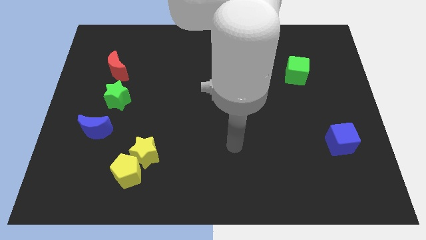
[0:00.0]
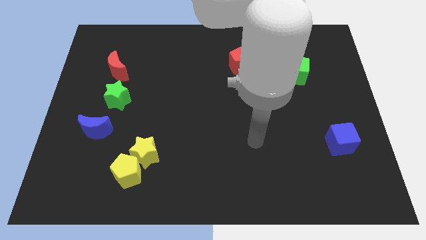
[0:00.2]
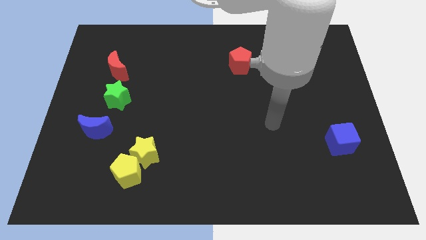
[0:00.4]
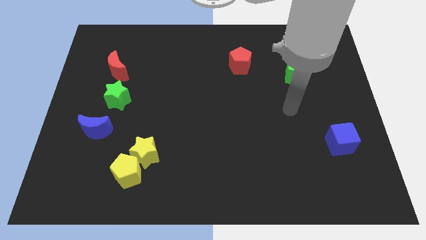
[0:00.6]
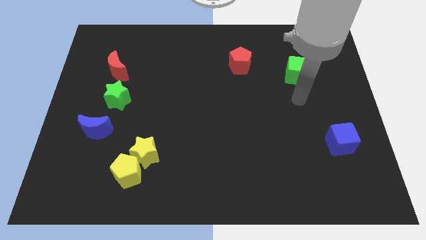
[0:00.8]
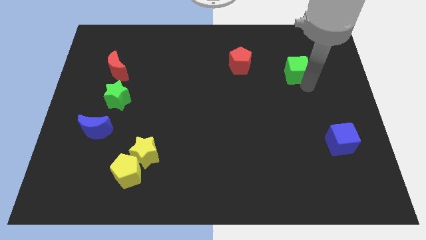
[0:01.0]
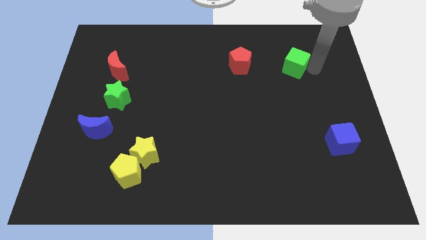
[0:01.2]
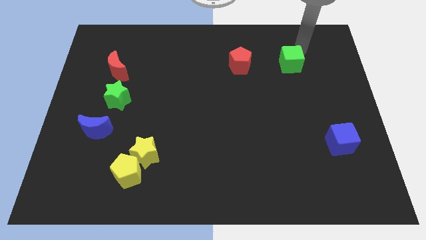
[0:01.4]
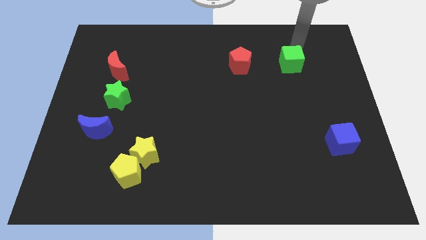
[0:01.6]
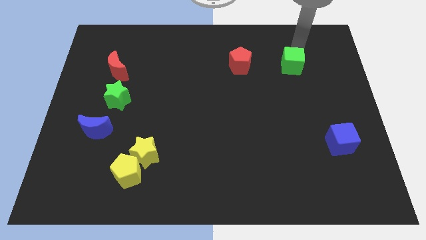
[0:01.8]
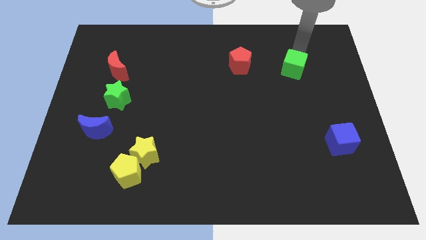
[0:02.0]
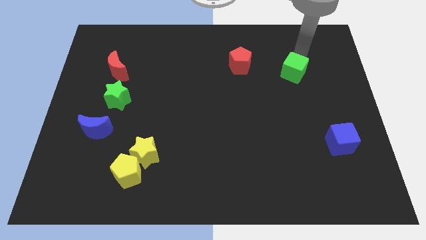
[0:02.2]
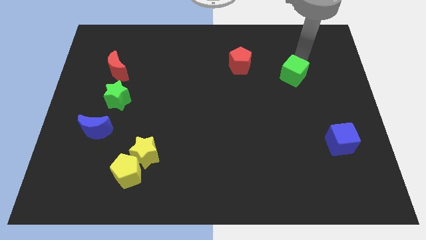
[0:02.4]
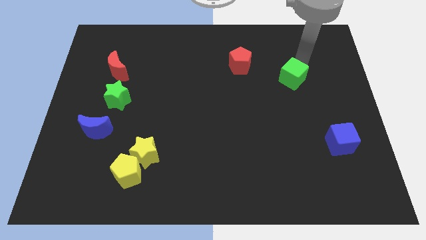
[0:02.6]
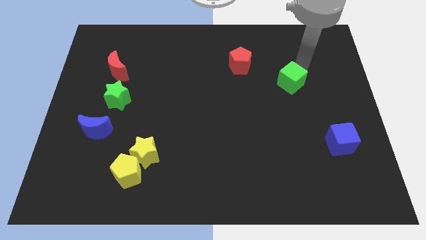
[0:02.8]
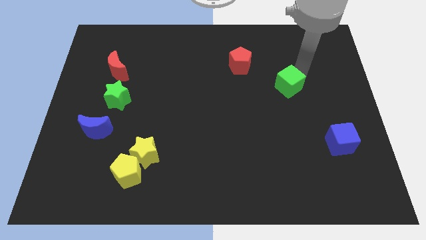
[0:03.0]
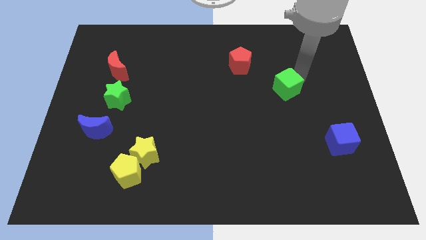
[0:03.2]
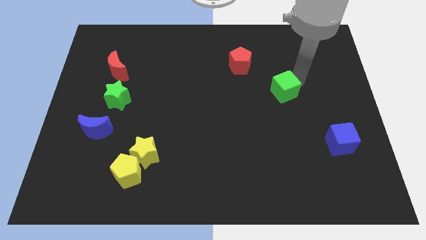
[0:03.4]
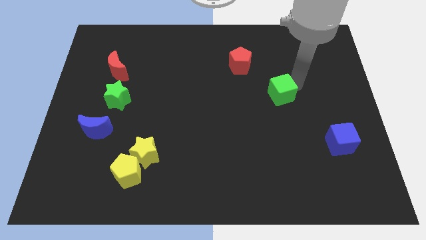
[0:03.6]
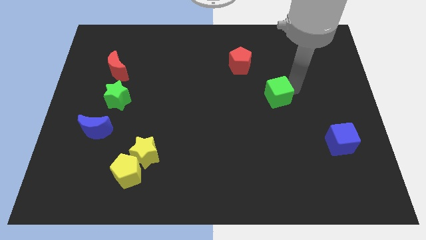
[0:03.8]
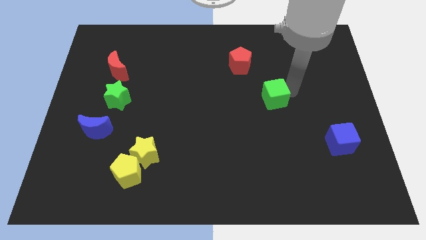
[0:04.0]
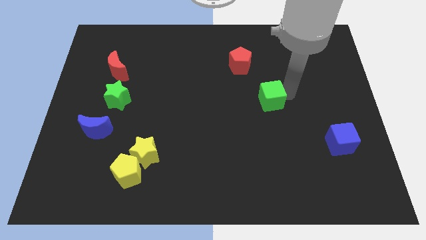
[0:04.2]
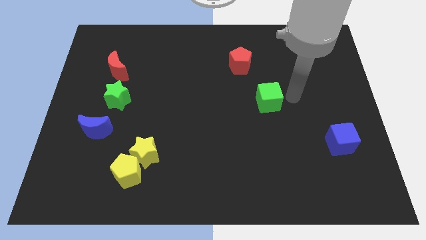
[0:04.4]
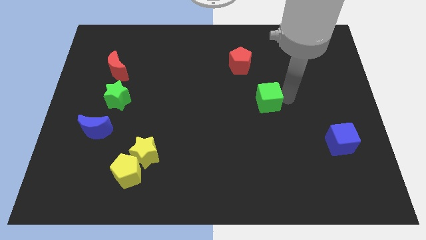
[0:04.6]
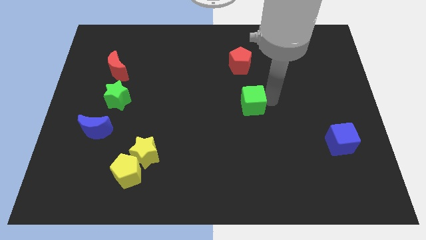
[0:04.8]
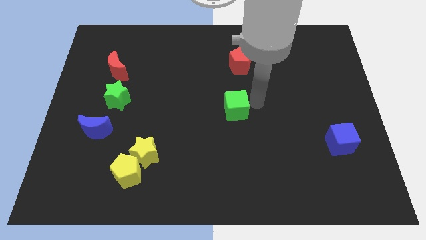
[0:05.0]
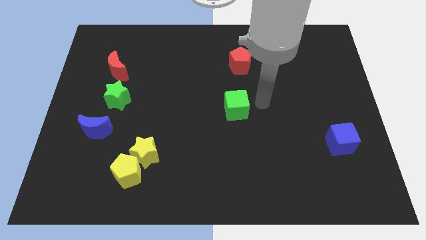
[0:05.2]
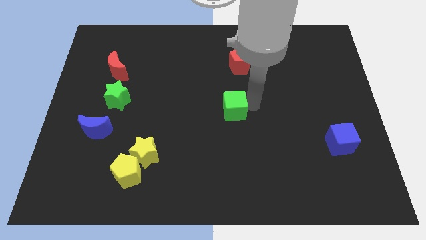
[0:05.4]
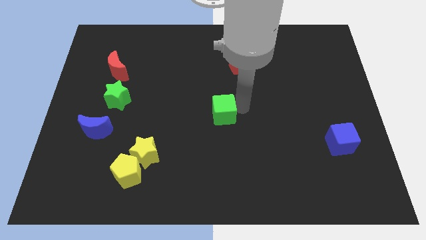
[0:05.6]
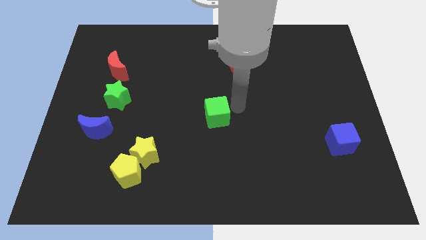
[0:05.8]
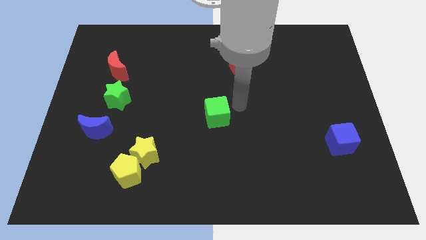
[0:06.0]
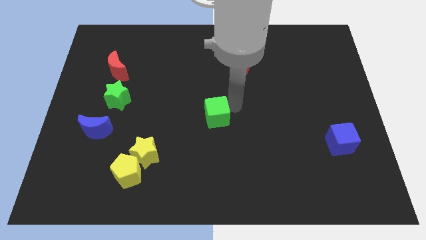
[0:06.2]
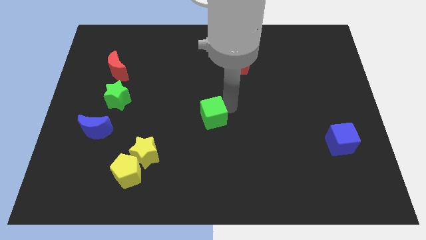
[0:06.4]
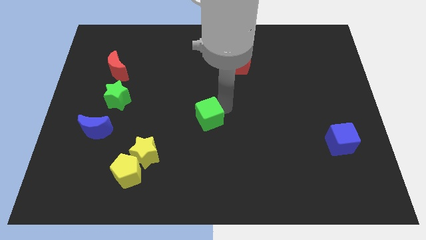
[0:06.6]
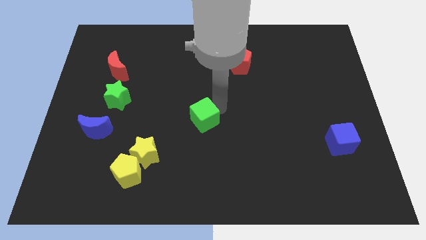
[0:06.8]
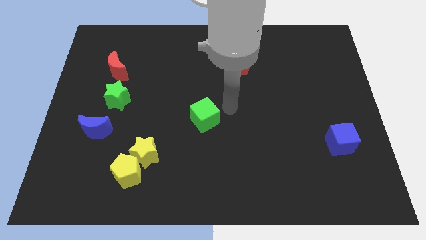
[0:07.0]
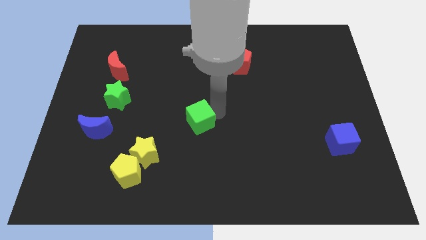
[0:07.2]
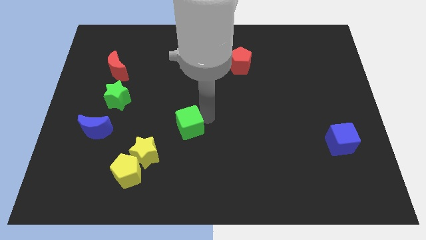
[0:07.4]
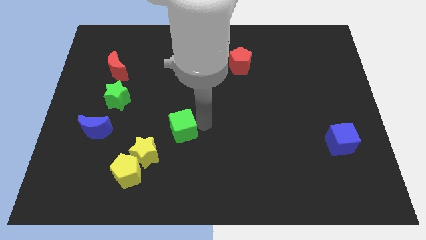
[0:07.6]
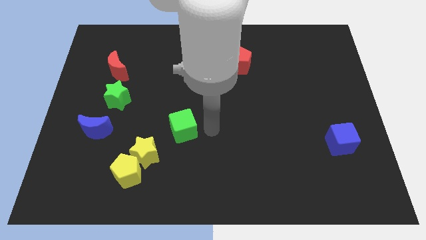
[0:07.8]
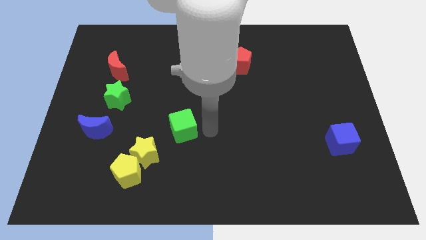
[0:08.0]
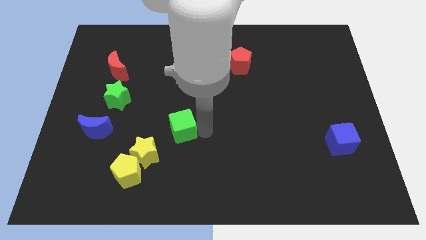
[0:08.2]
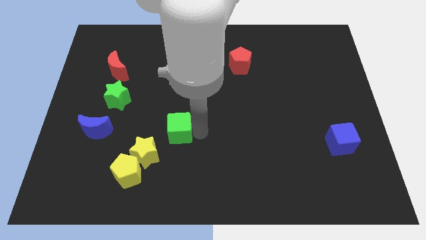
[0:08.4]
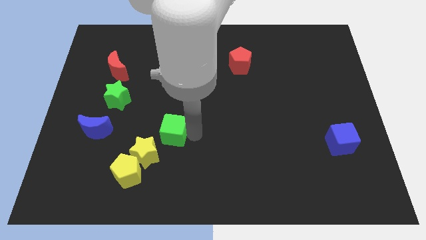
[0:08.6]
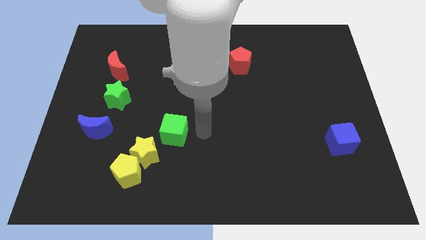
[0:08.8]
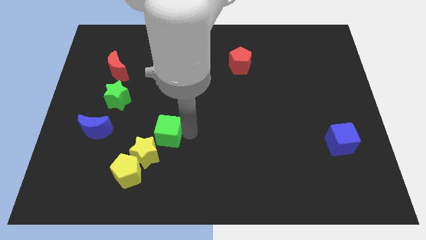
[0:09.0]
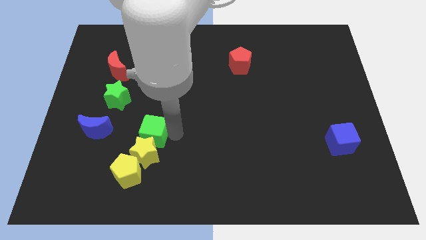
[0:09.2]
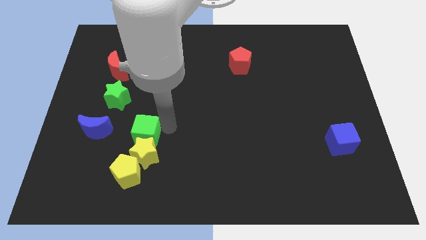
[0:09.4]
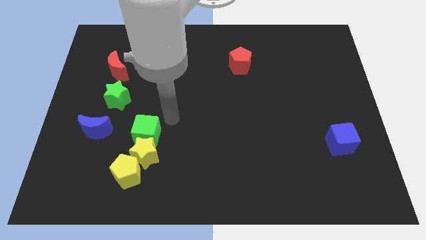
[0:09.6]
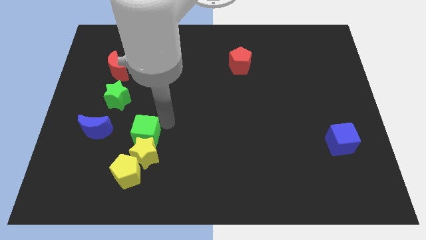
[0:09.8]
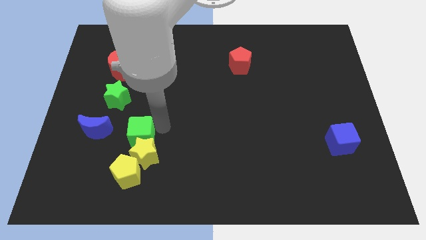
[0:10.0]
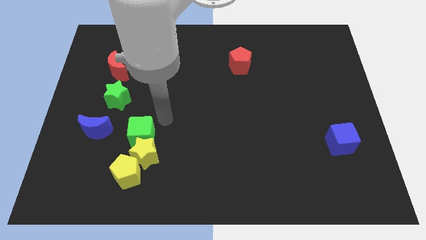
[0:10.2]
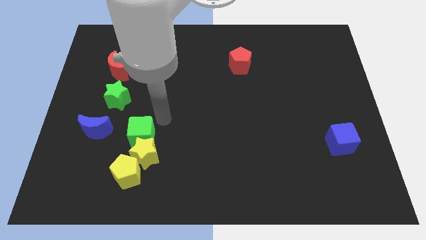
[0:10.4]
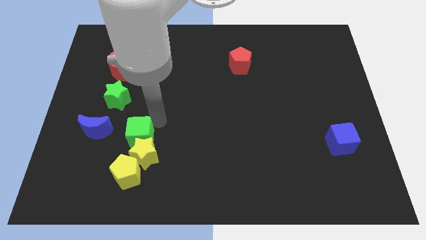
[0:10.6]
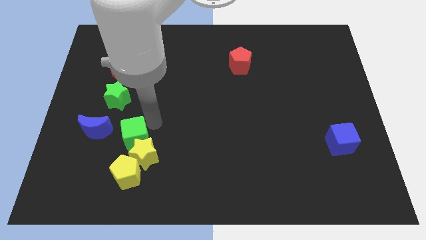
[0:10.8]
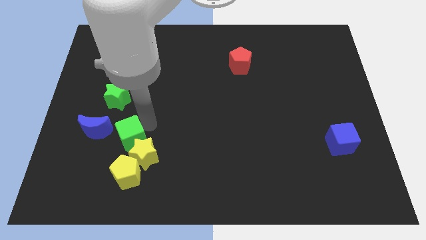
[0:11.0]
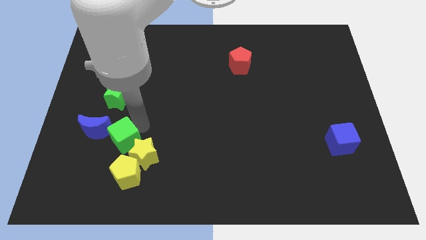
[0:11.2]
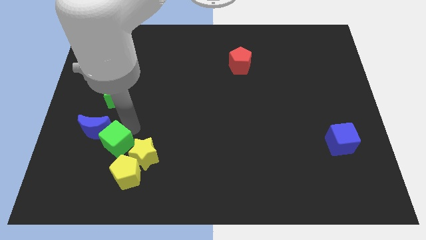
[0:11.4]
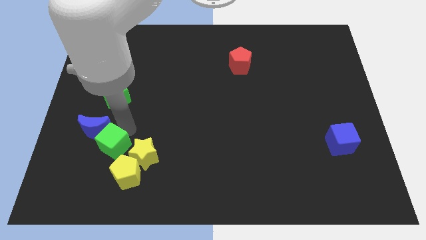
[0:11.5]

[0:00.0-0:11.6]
push the green cube to the bottom side of the blue moon

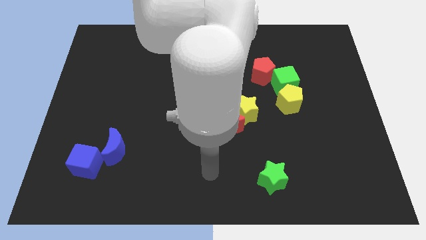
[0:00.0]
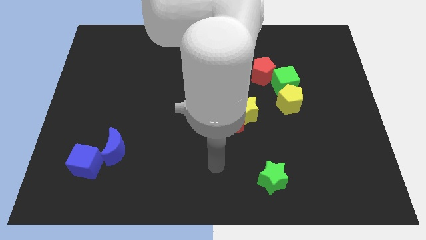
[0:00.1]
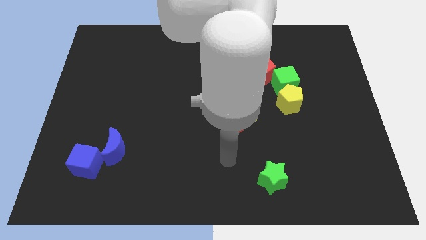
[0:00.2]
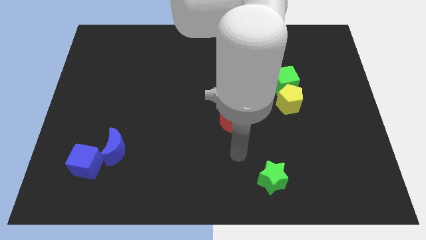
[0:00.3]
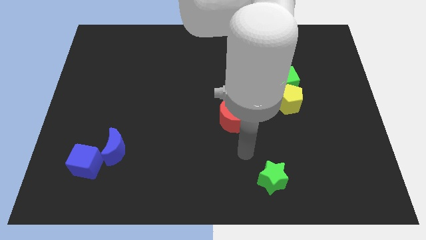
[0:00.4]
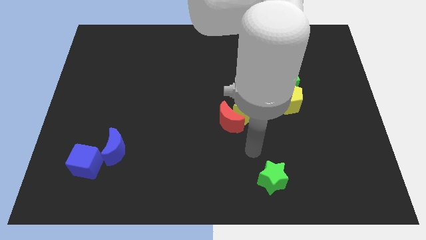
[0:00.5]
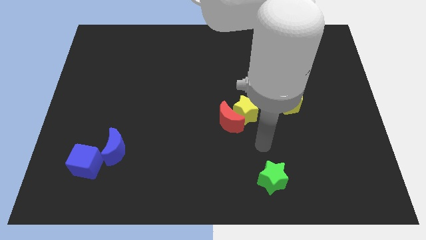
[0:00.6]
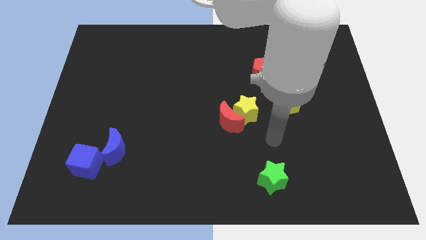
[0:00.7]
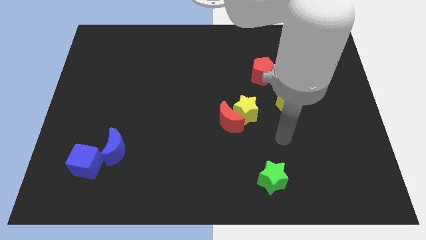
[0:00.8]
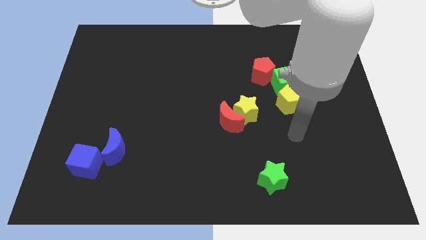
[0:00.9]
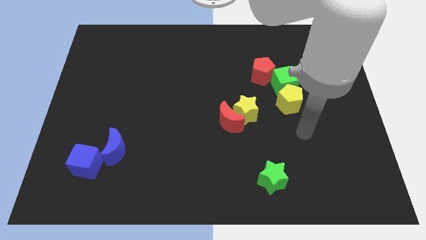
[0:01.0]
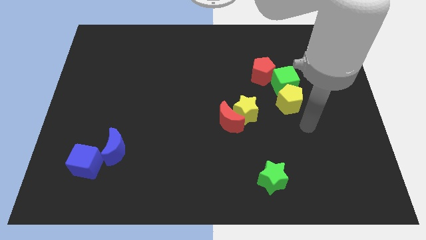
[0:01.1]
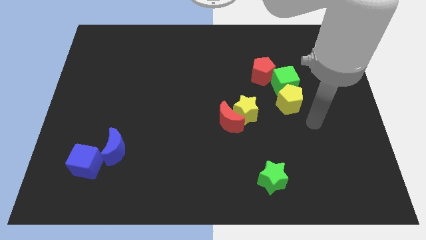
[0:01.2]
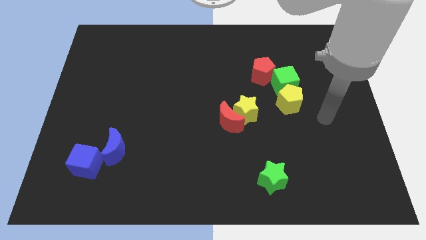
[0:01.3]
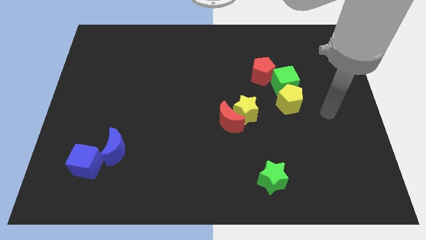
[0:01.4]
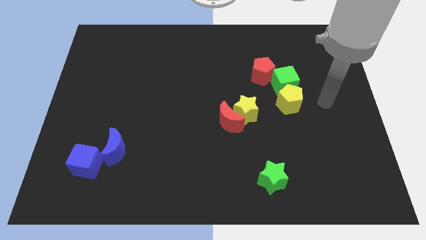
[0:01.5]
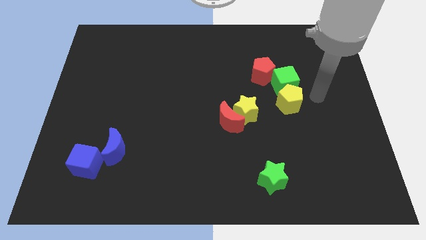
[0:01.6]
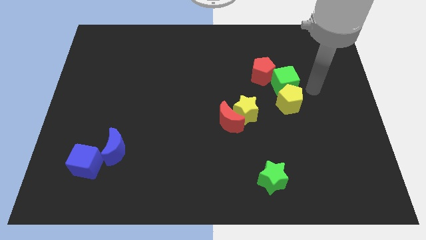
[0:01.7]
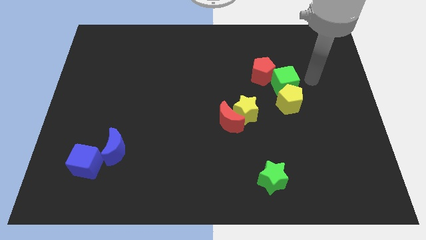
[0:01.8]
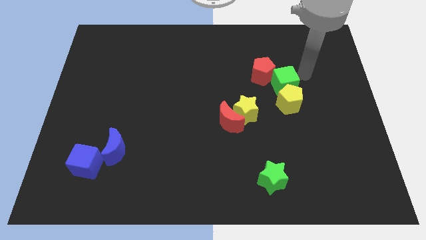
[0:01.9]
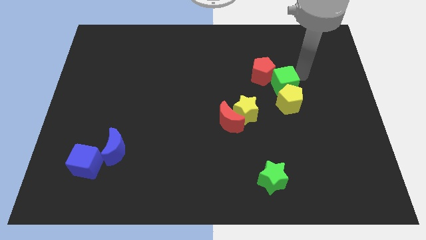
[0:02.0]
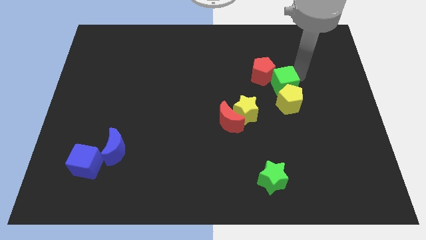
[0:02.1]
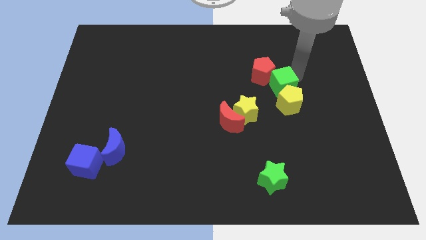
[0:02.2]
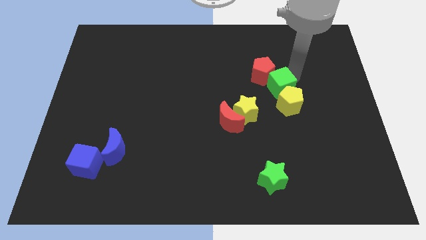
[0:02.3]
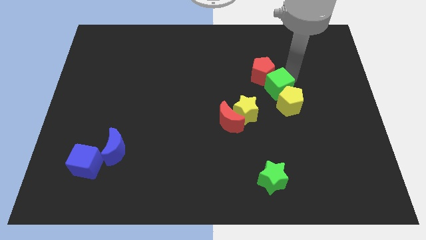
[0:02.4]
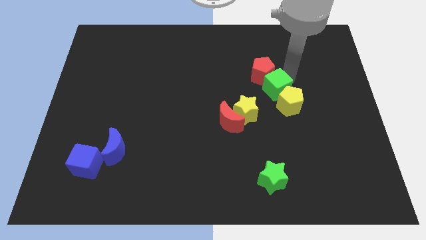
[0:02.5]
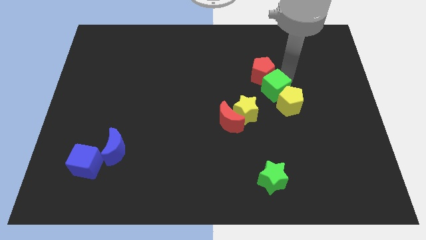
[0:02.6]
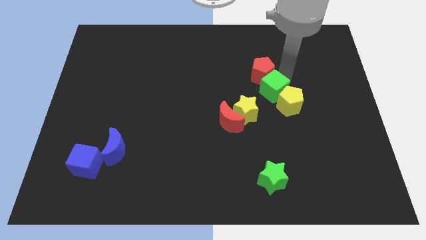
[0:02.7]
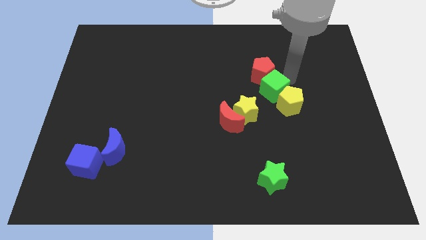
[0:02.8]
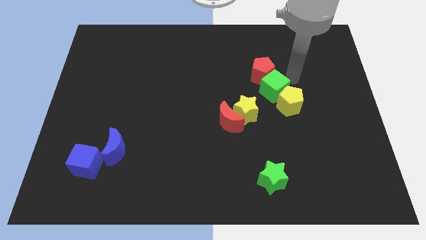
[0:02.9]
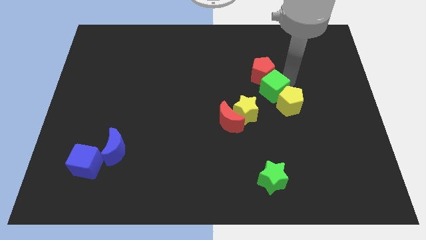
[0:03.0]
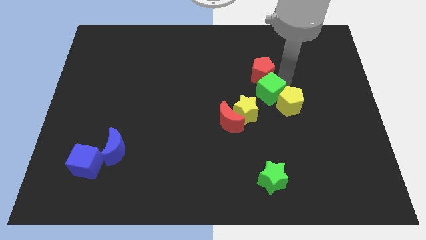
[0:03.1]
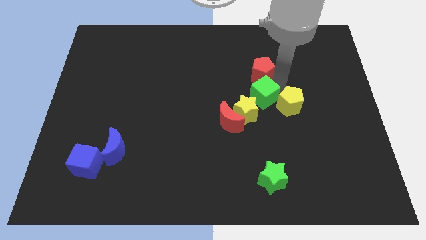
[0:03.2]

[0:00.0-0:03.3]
put the green cube to the top right of the red moon
